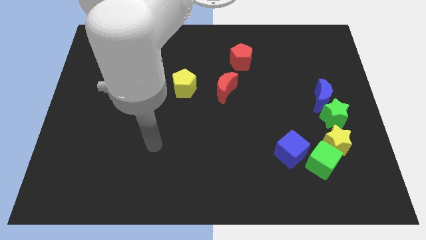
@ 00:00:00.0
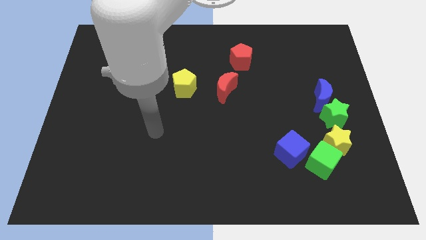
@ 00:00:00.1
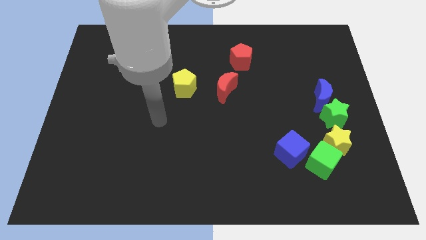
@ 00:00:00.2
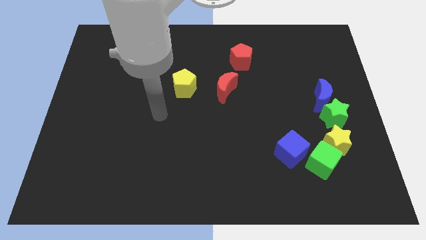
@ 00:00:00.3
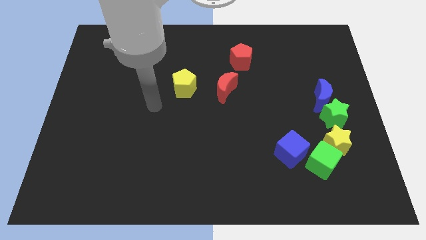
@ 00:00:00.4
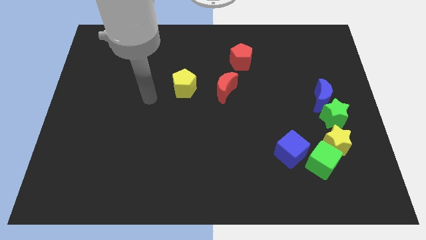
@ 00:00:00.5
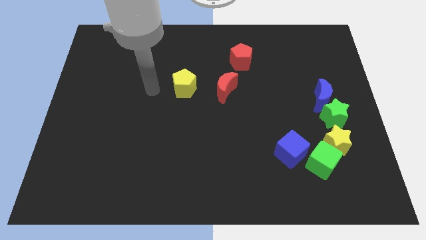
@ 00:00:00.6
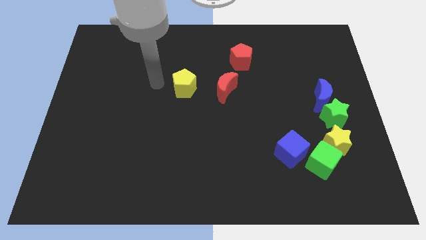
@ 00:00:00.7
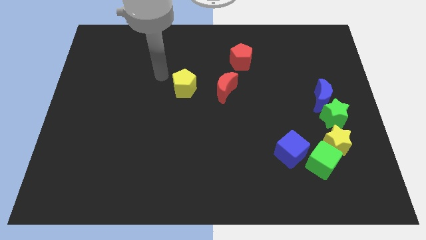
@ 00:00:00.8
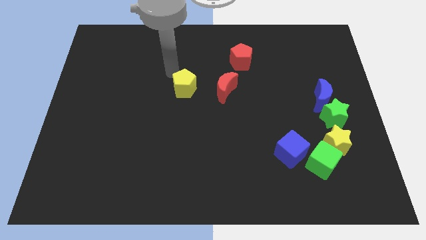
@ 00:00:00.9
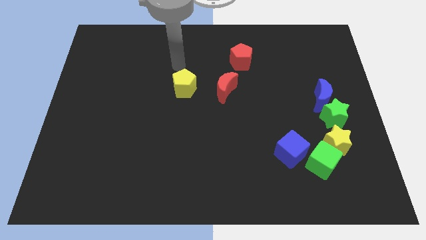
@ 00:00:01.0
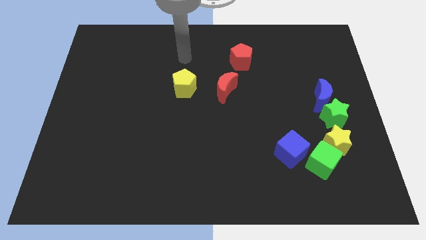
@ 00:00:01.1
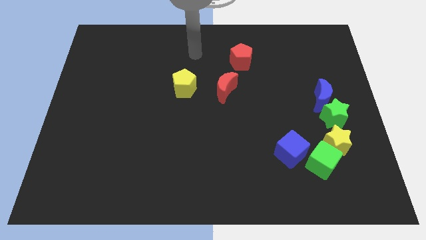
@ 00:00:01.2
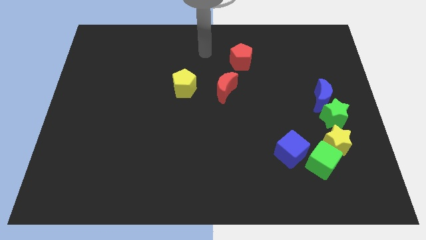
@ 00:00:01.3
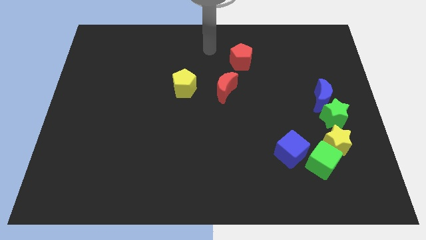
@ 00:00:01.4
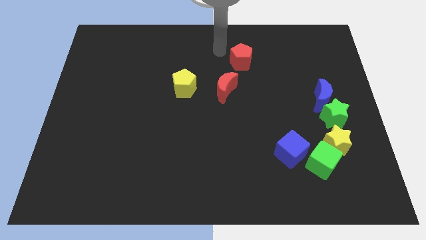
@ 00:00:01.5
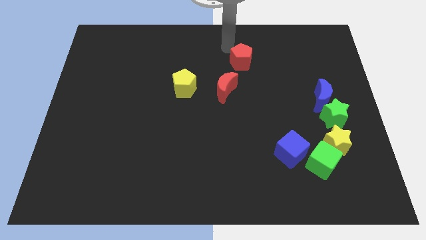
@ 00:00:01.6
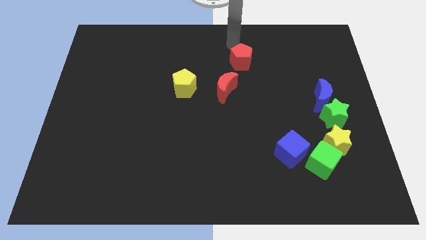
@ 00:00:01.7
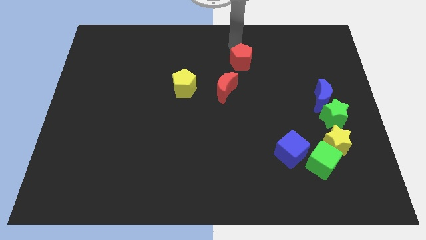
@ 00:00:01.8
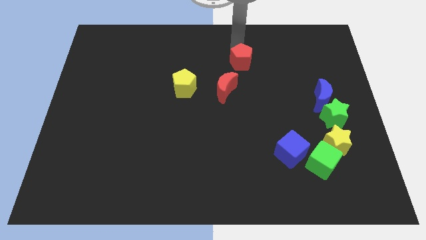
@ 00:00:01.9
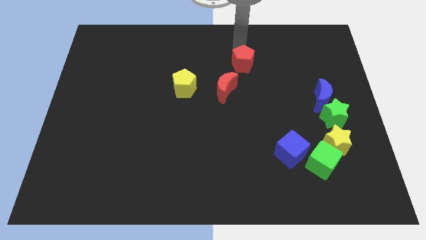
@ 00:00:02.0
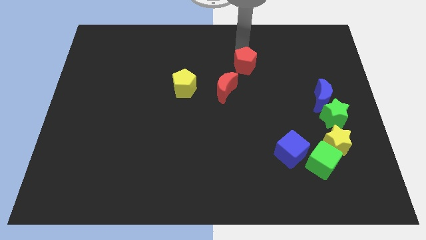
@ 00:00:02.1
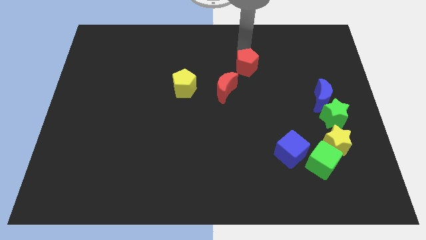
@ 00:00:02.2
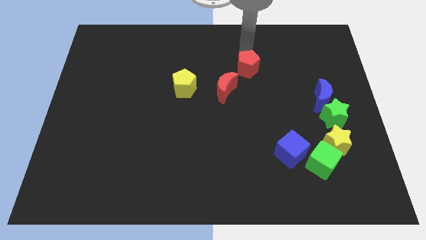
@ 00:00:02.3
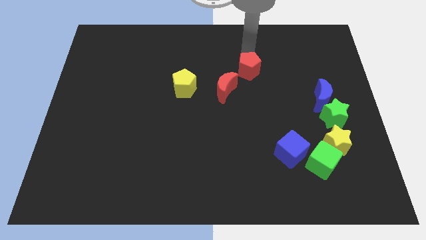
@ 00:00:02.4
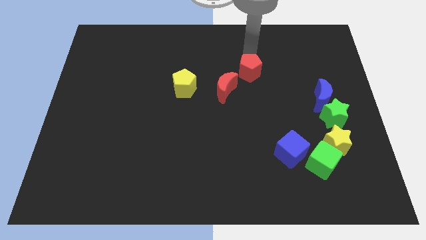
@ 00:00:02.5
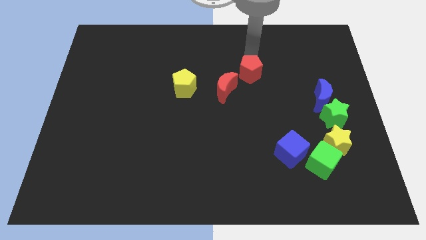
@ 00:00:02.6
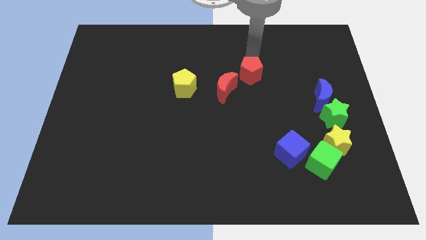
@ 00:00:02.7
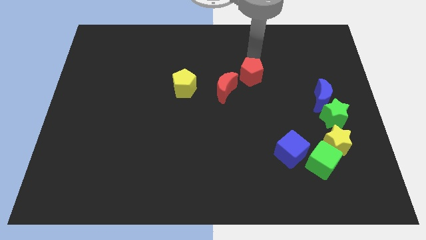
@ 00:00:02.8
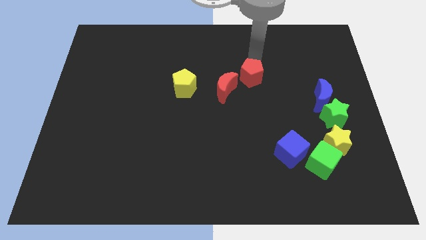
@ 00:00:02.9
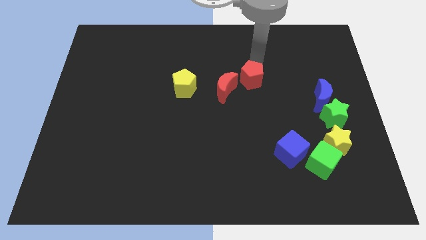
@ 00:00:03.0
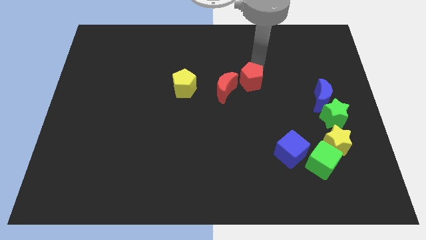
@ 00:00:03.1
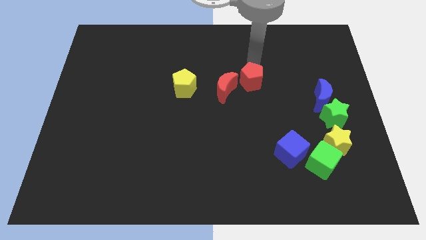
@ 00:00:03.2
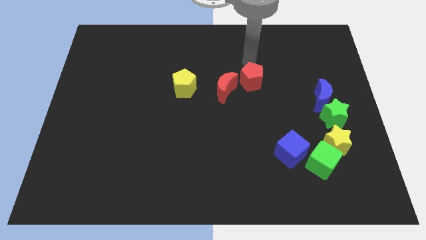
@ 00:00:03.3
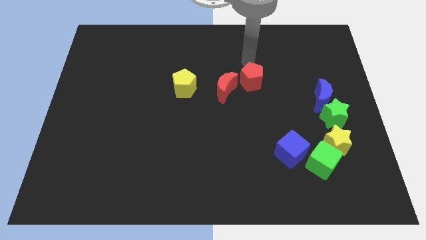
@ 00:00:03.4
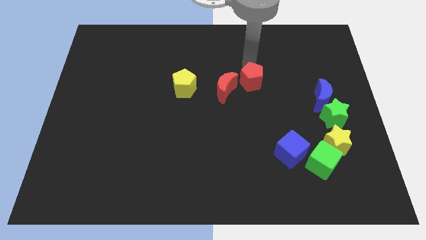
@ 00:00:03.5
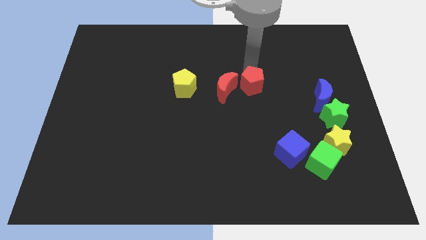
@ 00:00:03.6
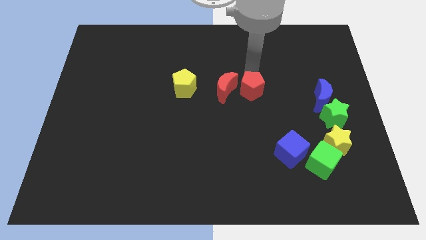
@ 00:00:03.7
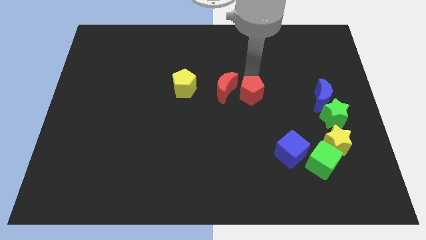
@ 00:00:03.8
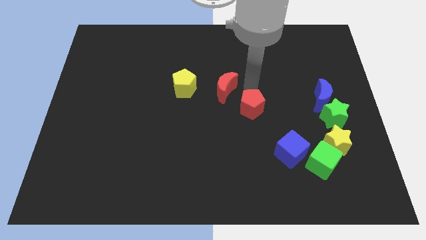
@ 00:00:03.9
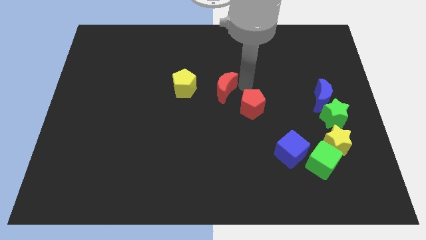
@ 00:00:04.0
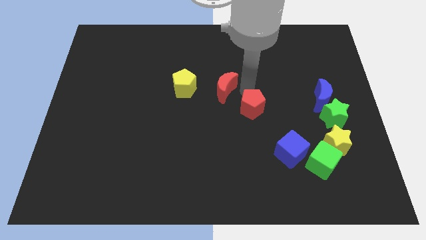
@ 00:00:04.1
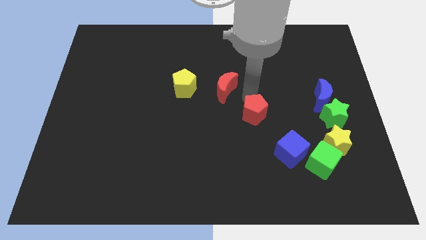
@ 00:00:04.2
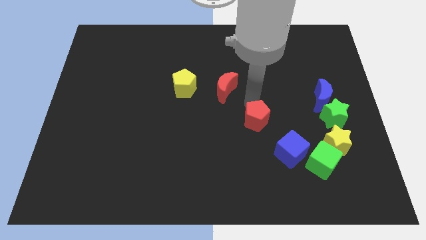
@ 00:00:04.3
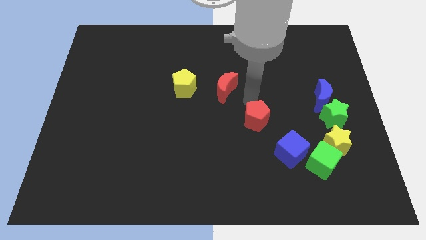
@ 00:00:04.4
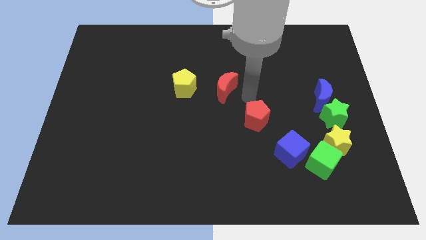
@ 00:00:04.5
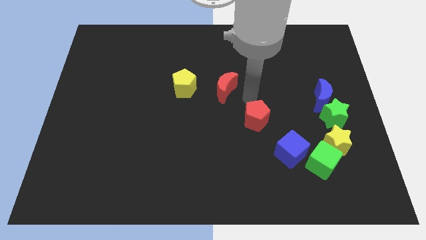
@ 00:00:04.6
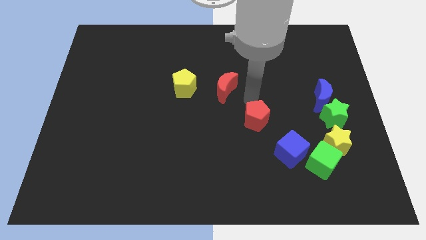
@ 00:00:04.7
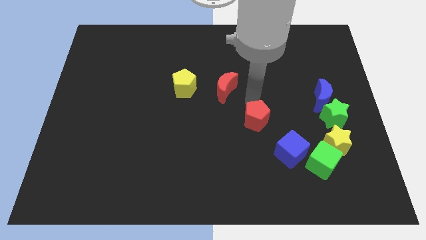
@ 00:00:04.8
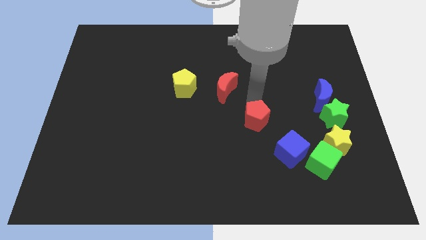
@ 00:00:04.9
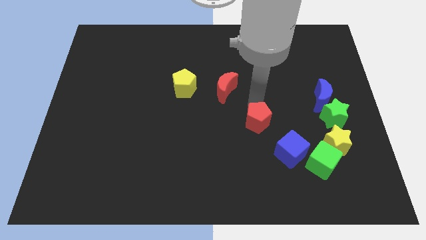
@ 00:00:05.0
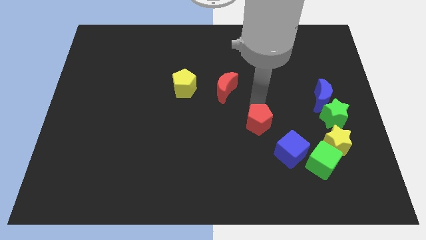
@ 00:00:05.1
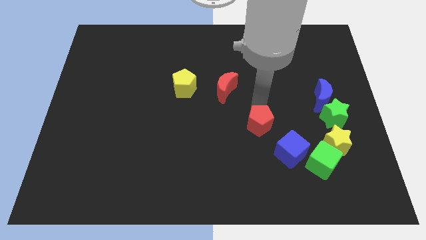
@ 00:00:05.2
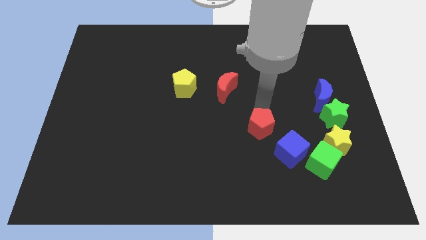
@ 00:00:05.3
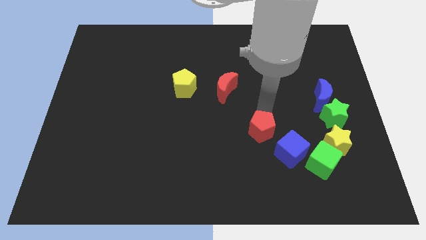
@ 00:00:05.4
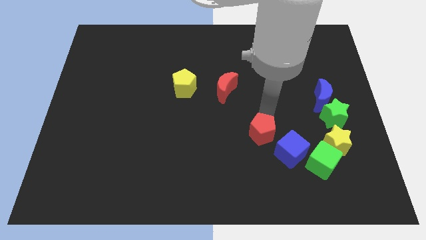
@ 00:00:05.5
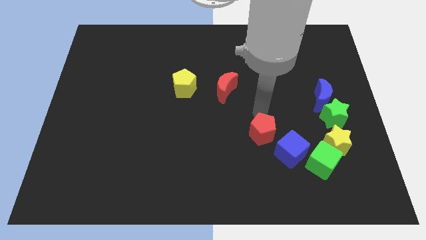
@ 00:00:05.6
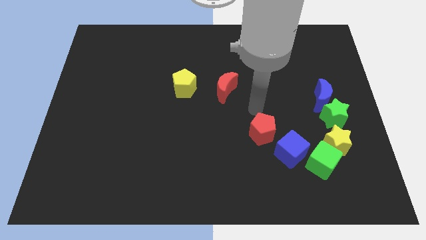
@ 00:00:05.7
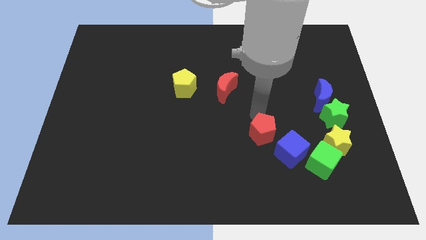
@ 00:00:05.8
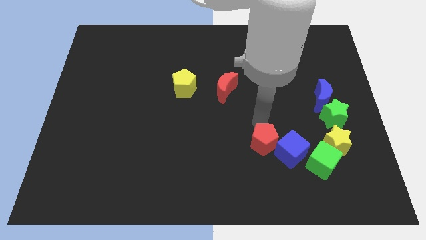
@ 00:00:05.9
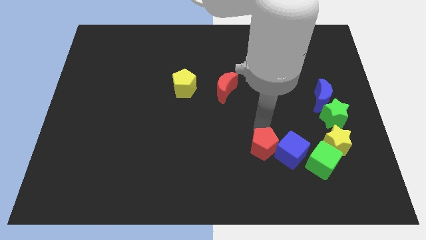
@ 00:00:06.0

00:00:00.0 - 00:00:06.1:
slide the red pentagon just left of the green cube

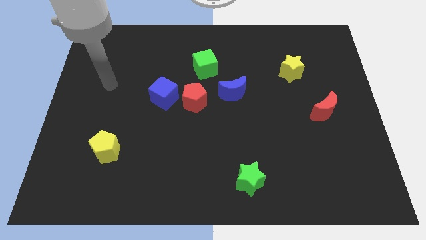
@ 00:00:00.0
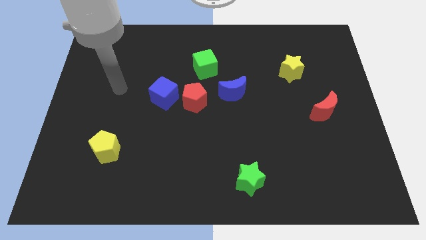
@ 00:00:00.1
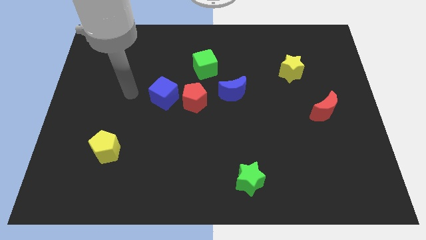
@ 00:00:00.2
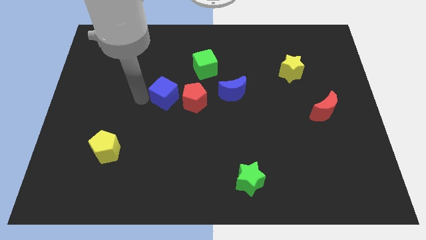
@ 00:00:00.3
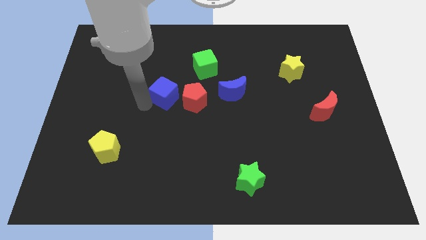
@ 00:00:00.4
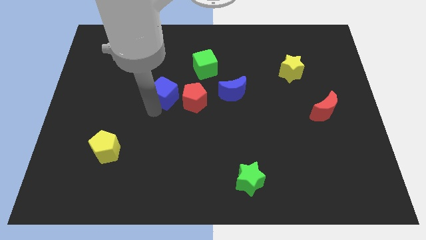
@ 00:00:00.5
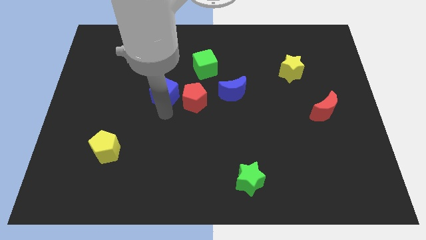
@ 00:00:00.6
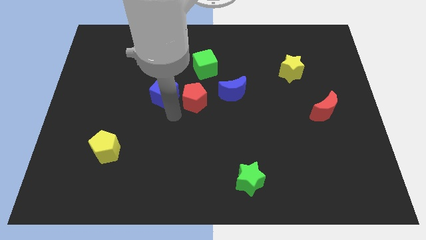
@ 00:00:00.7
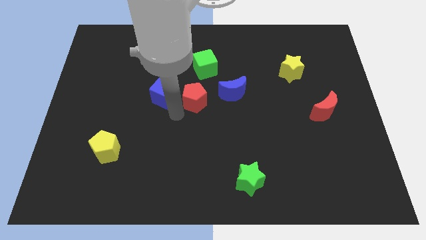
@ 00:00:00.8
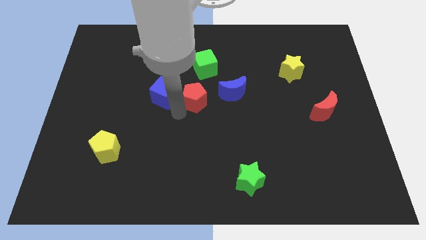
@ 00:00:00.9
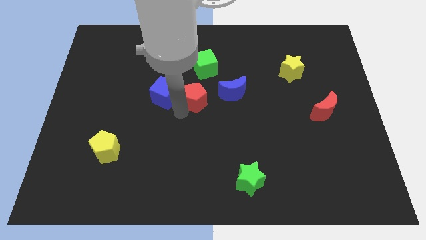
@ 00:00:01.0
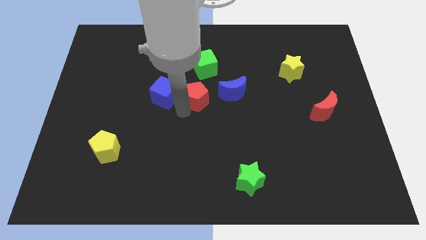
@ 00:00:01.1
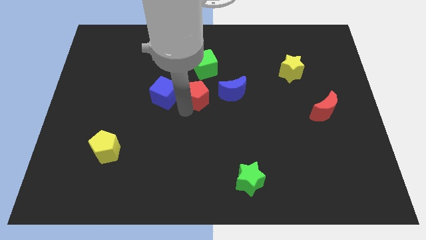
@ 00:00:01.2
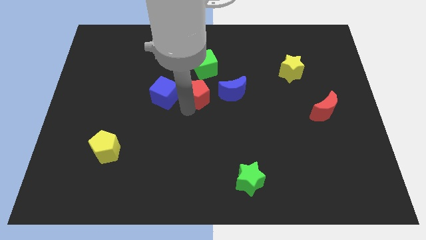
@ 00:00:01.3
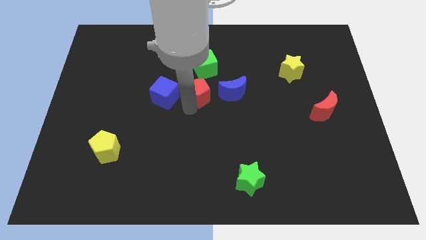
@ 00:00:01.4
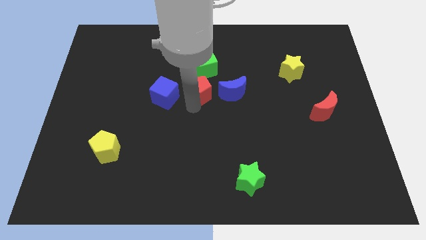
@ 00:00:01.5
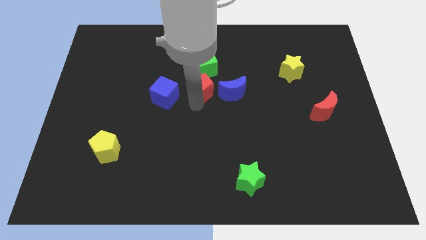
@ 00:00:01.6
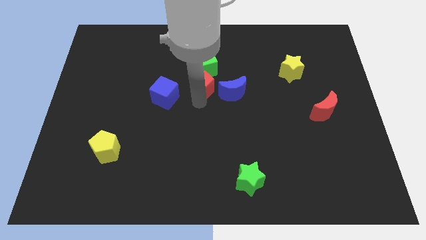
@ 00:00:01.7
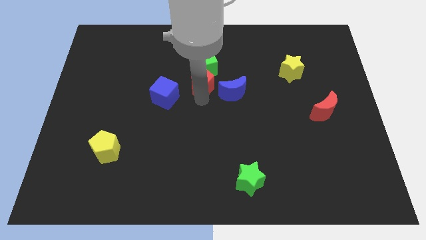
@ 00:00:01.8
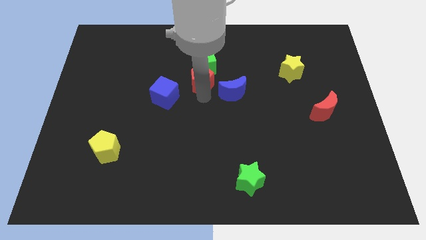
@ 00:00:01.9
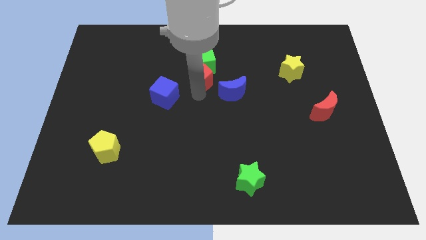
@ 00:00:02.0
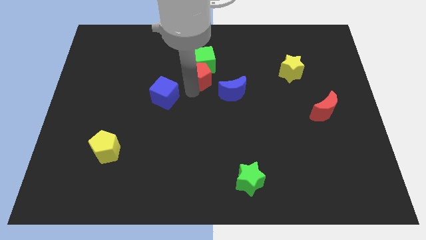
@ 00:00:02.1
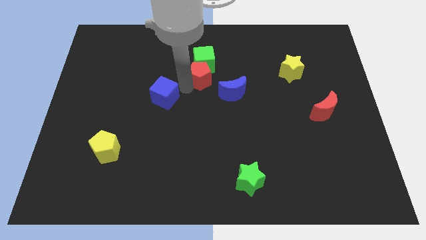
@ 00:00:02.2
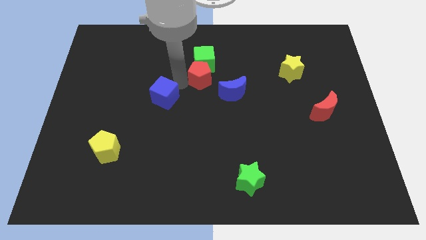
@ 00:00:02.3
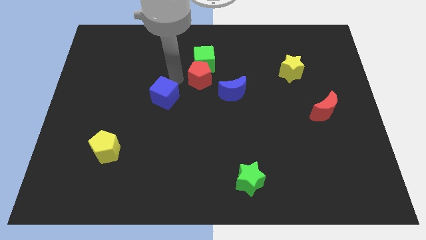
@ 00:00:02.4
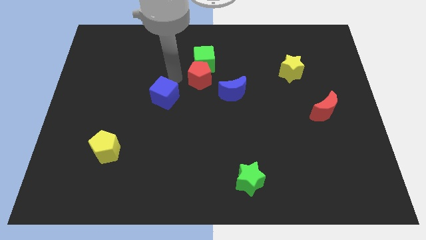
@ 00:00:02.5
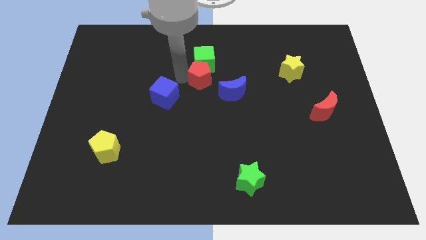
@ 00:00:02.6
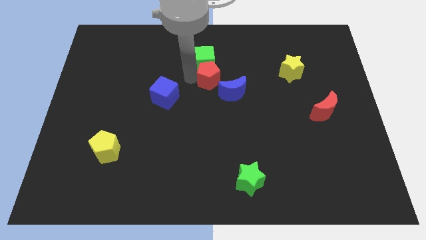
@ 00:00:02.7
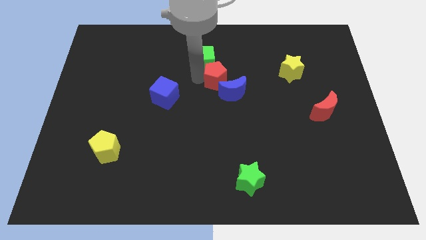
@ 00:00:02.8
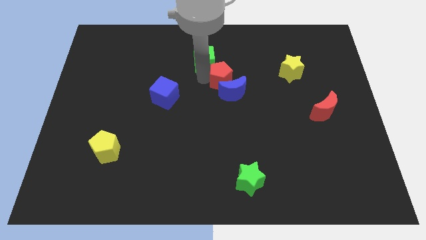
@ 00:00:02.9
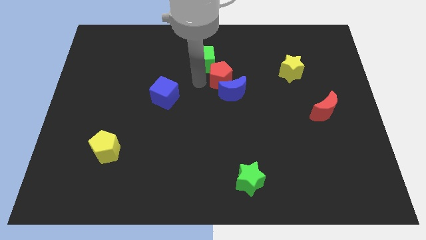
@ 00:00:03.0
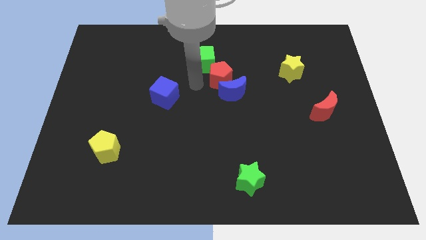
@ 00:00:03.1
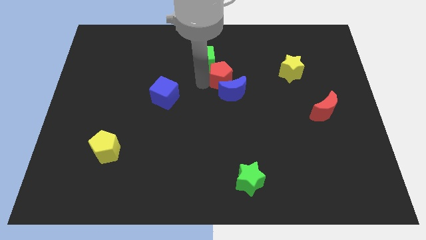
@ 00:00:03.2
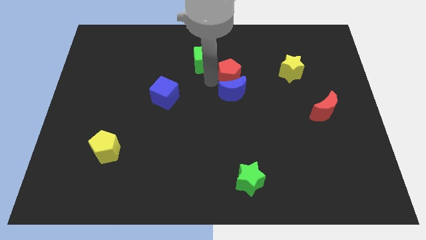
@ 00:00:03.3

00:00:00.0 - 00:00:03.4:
put the red pentagon to the left side of the yellow star
